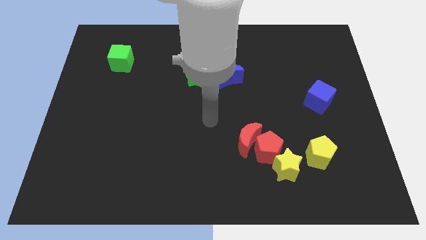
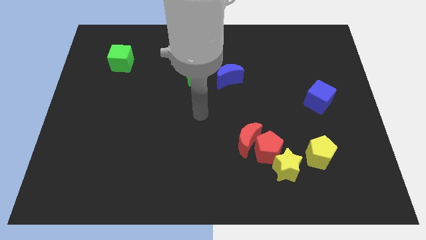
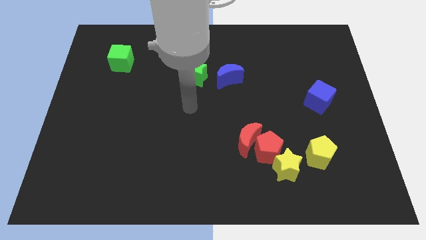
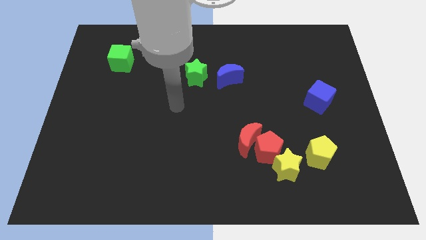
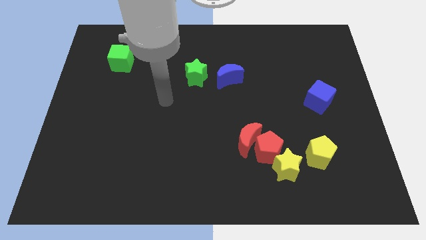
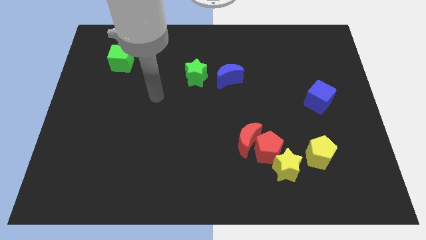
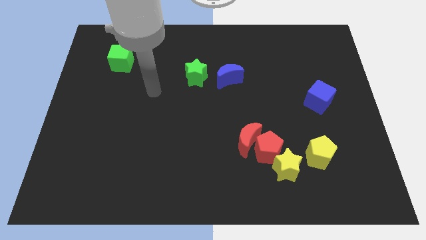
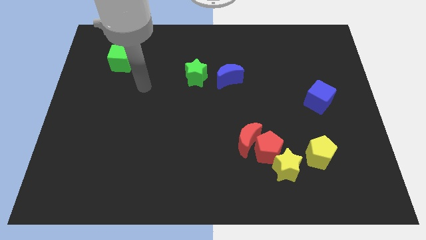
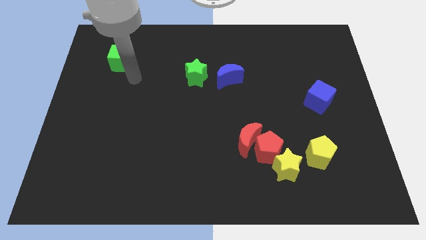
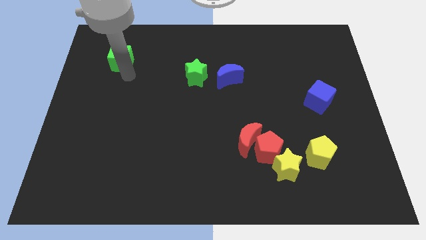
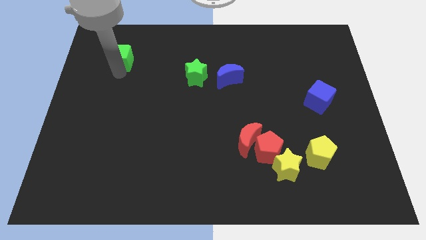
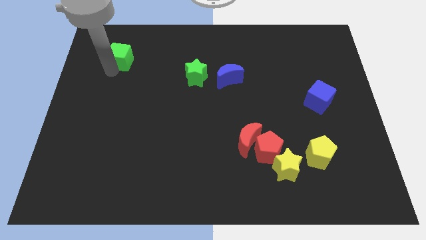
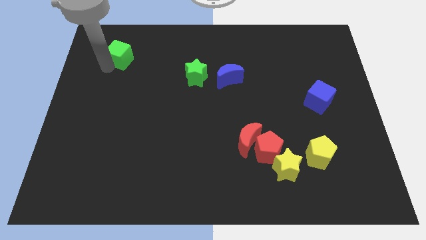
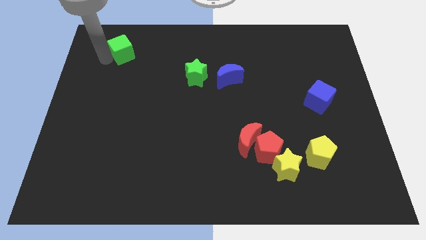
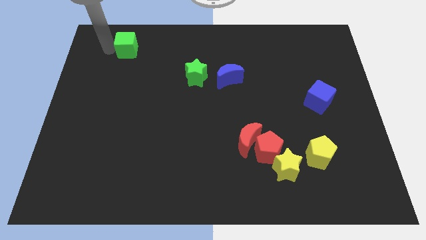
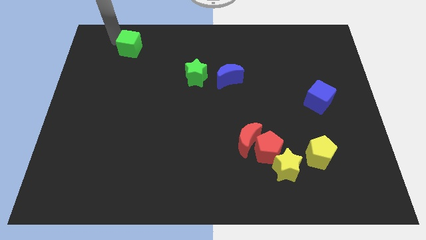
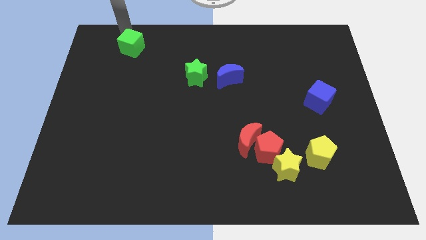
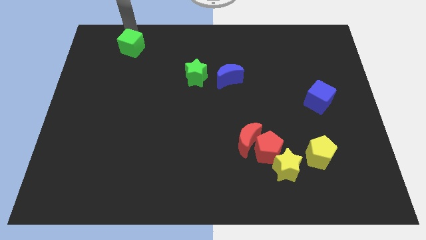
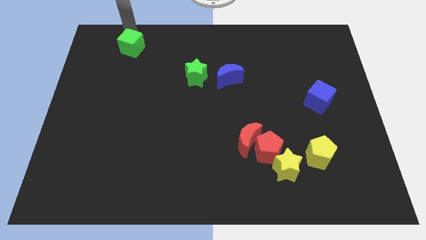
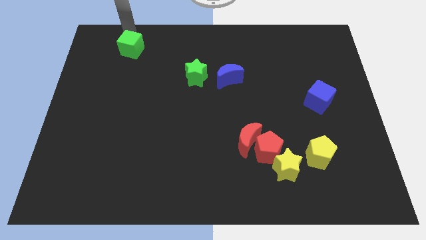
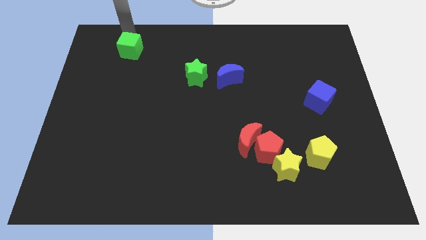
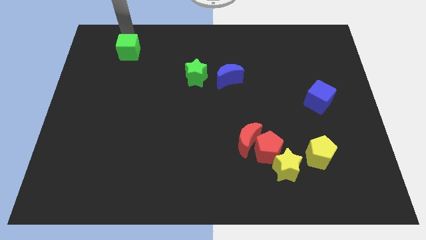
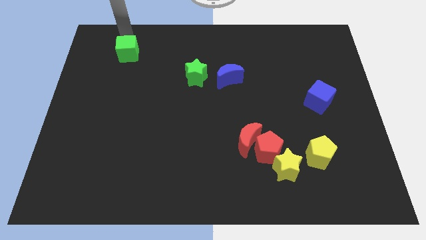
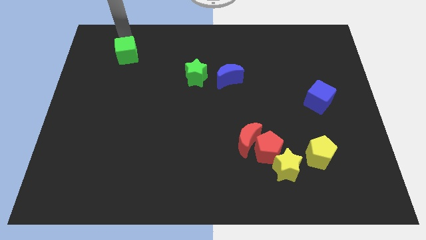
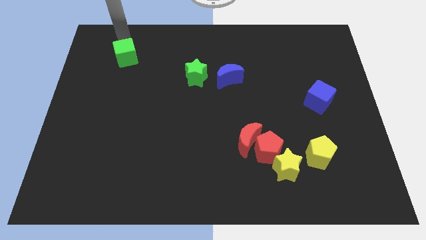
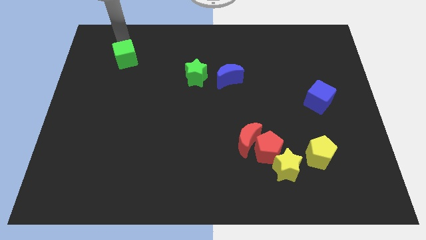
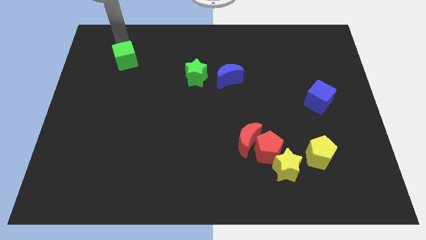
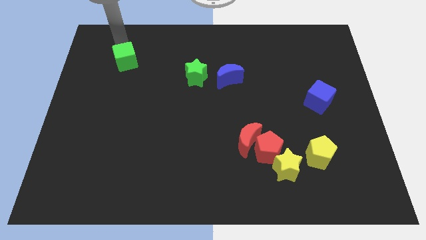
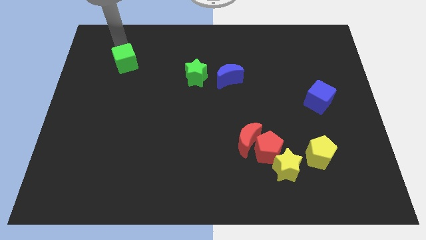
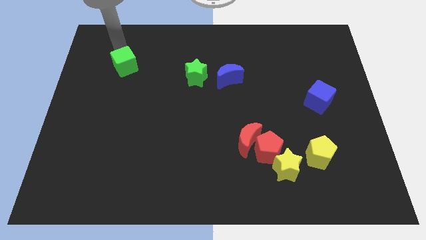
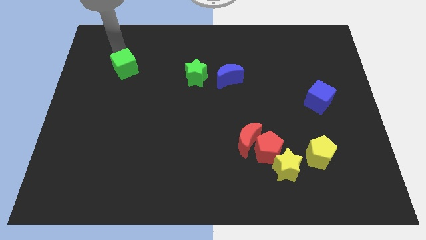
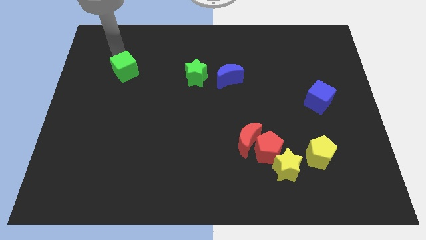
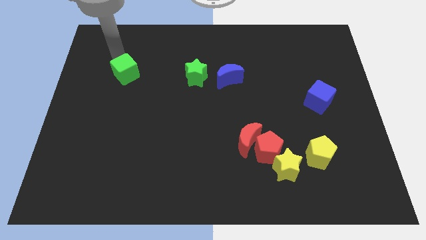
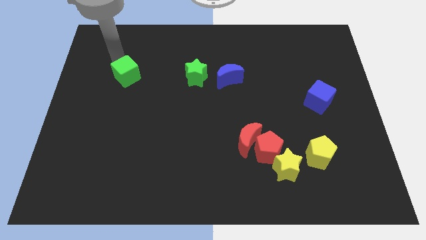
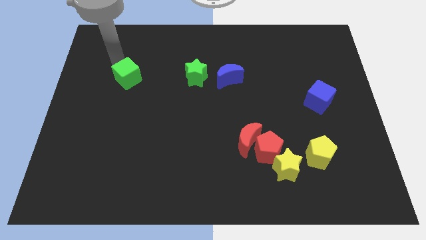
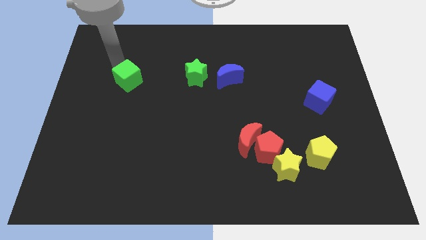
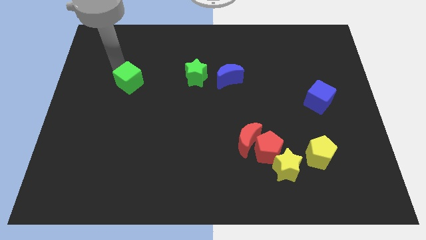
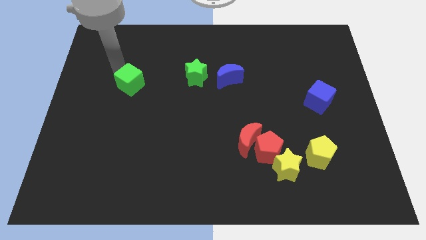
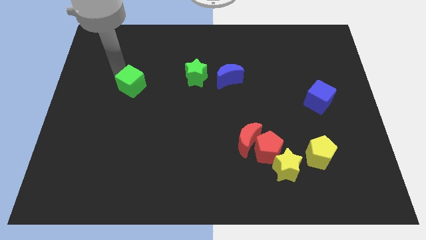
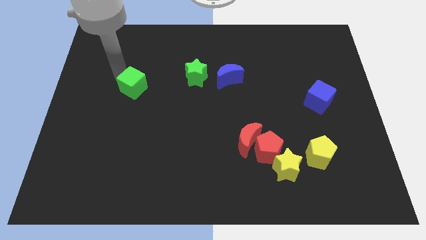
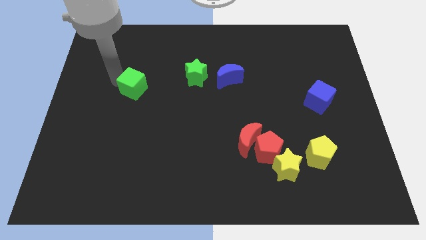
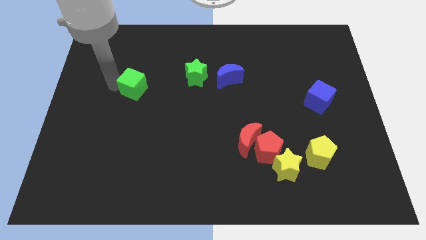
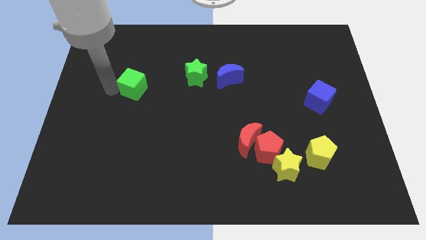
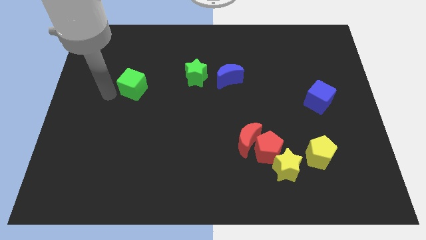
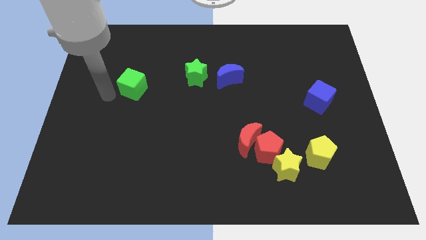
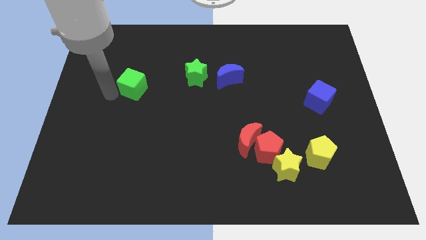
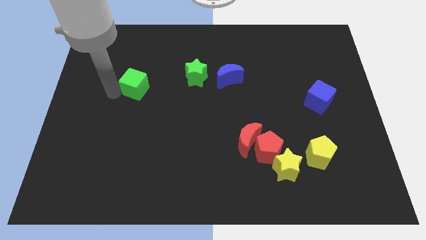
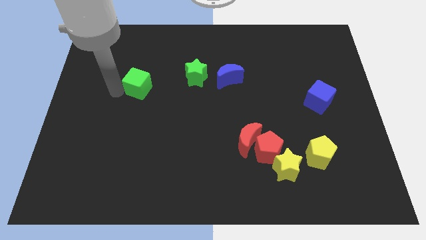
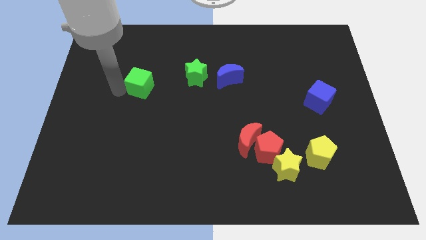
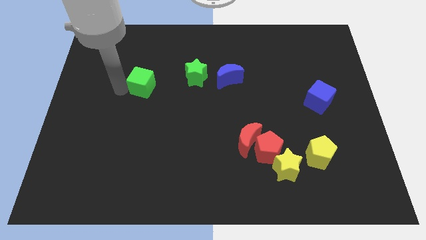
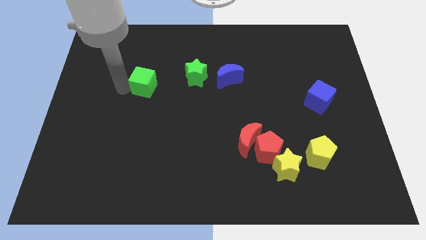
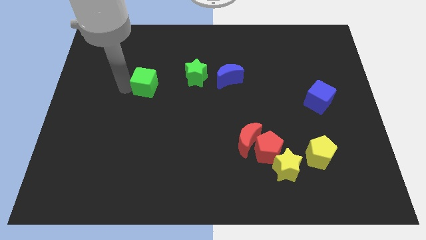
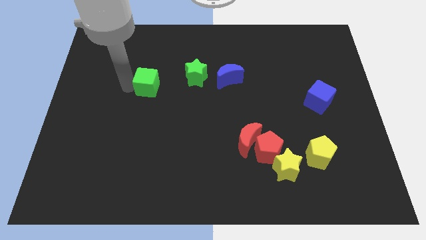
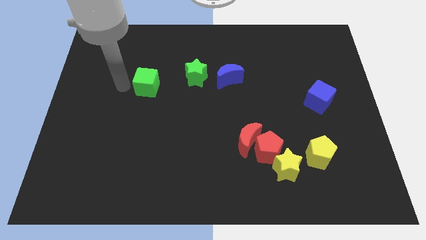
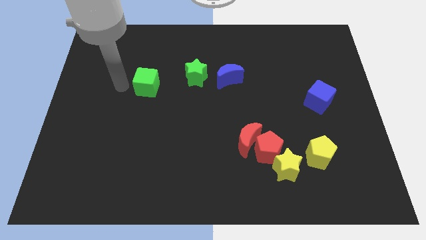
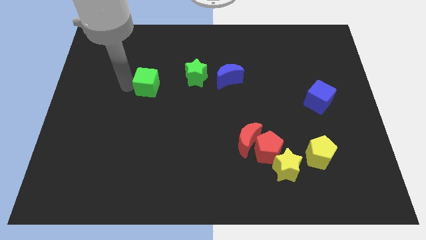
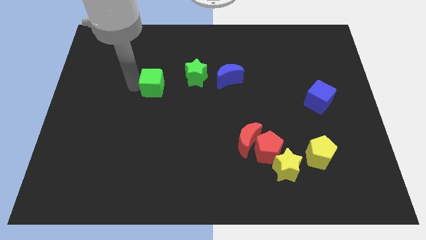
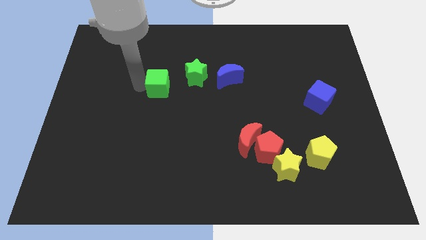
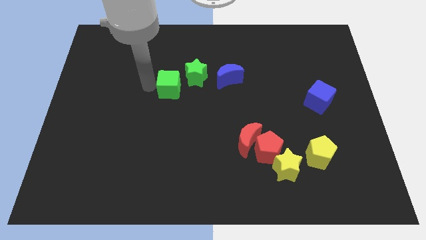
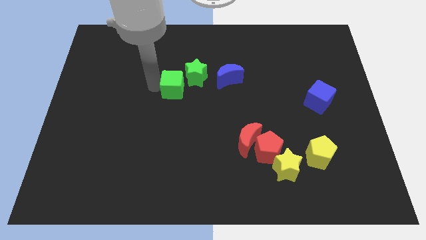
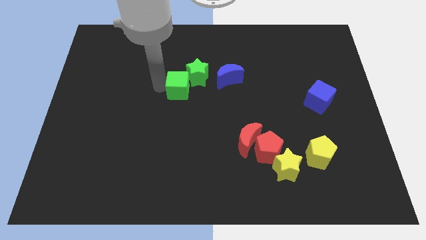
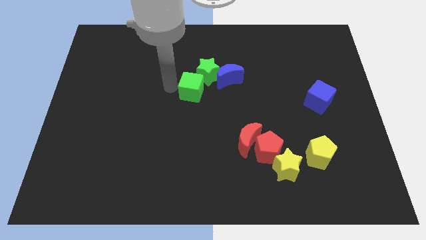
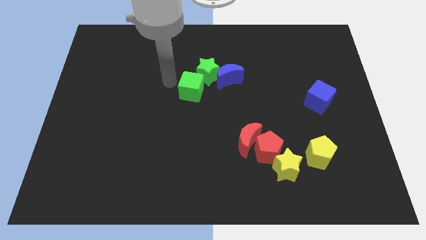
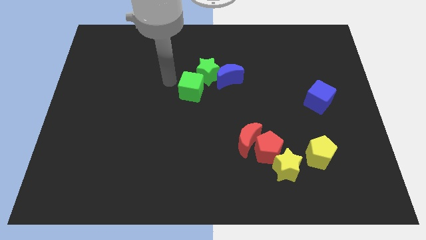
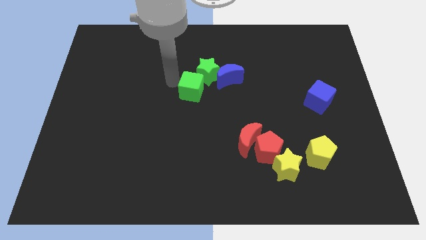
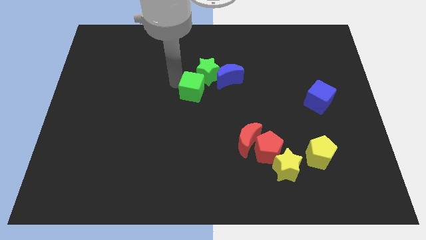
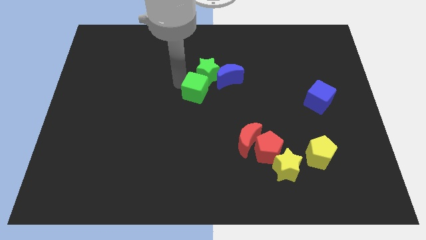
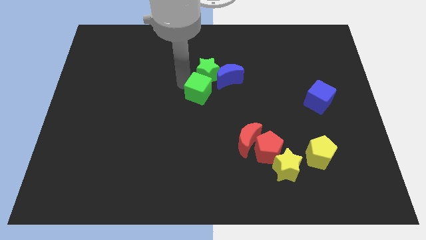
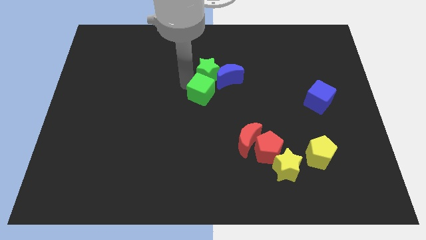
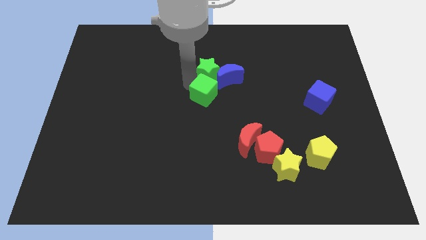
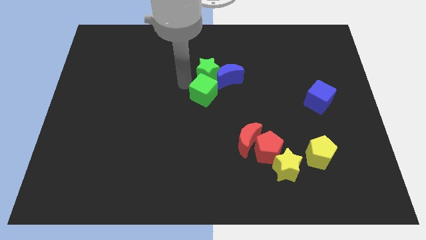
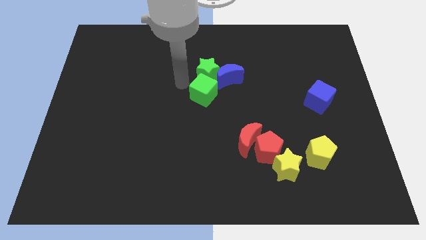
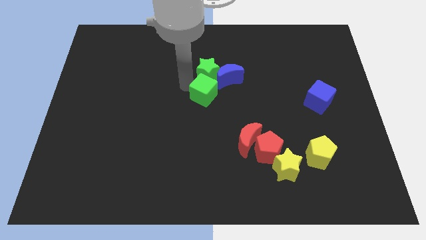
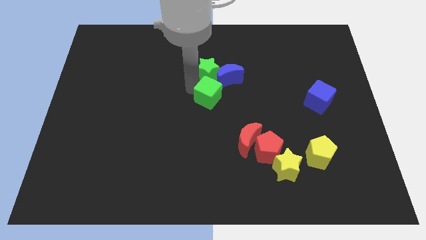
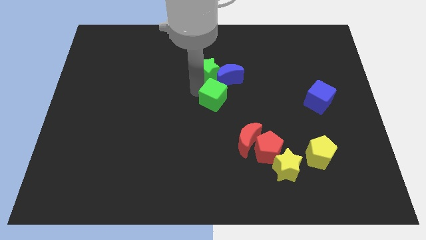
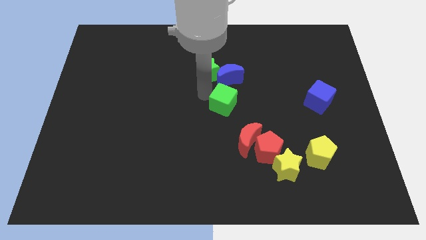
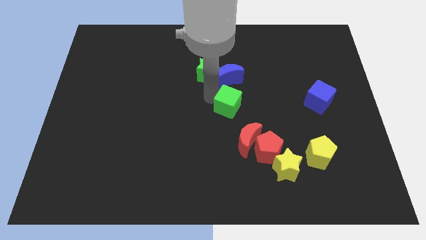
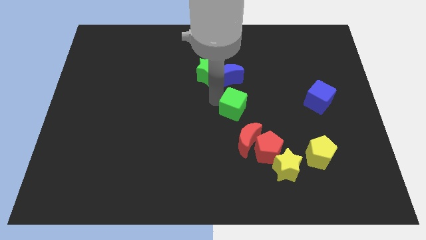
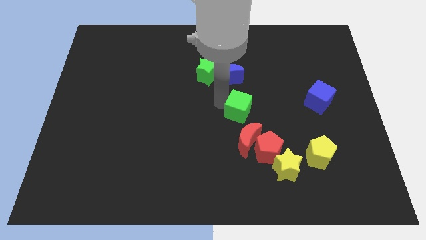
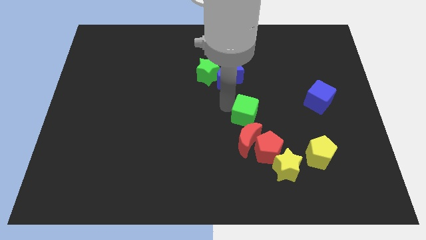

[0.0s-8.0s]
slide the green cube to the top of the red pentagon
